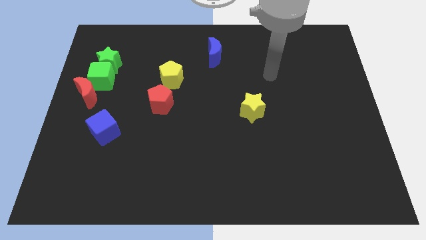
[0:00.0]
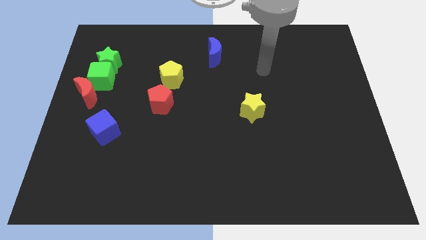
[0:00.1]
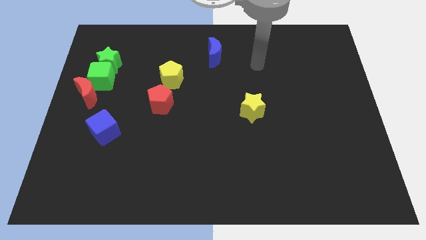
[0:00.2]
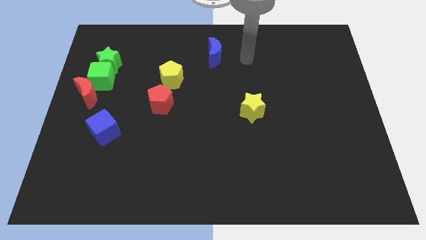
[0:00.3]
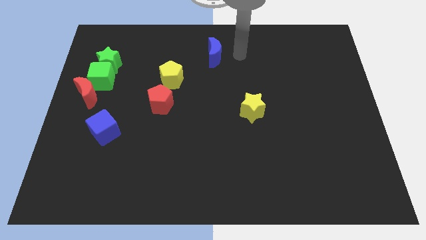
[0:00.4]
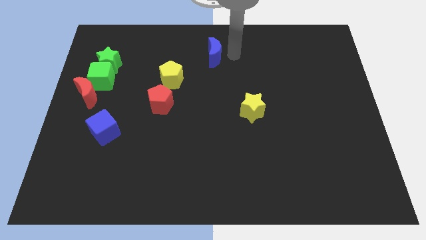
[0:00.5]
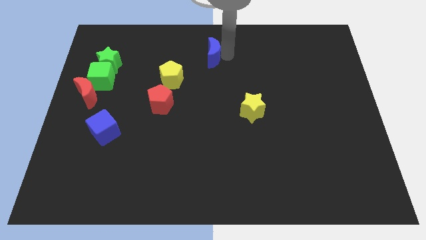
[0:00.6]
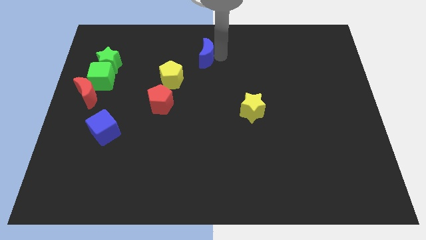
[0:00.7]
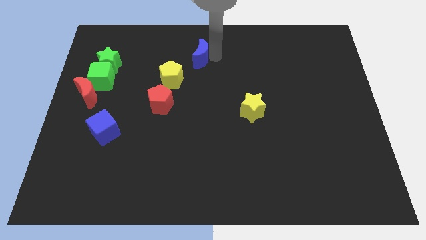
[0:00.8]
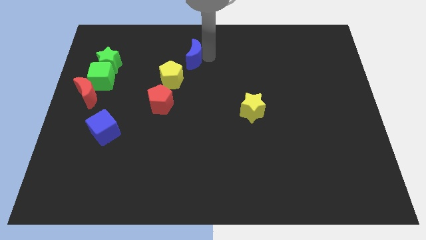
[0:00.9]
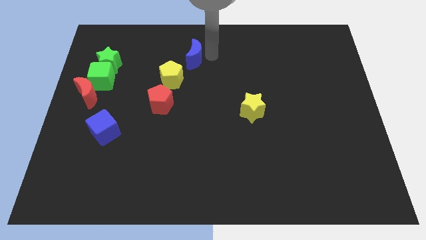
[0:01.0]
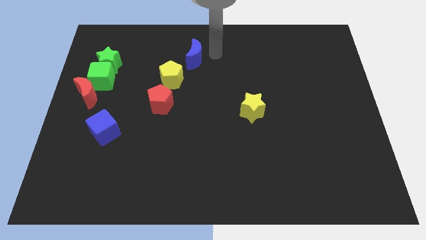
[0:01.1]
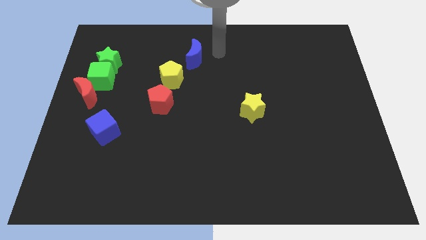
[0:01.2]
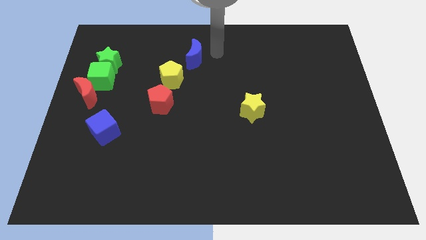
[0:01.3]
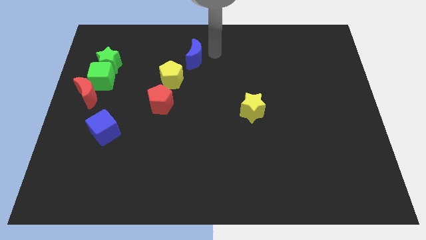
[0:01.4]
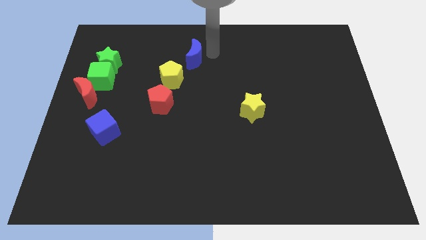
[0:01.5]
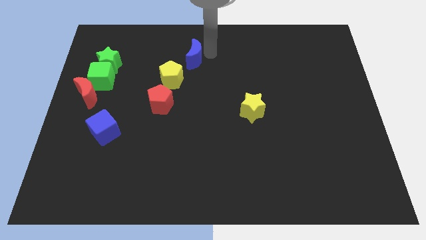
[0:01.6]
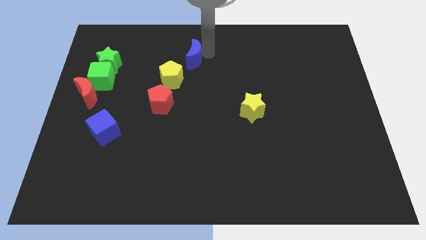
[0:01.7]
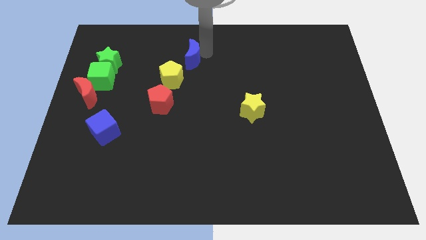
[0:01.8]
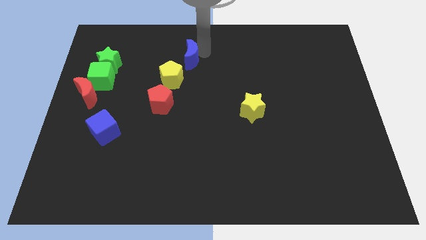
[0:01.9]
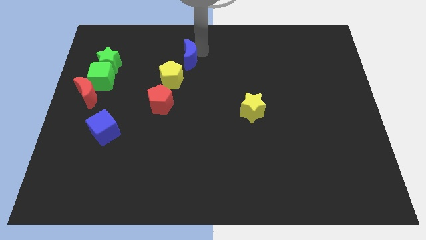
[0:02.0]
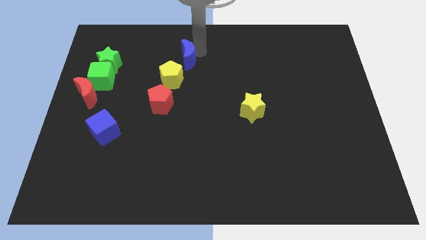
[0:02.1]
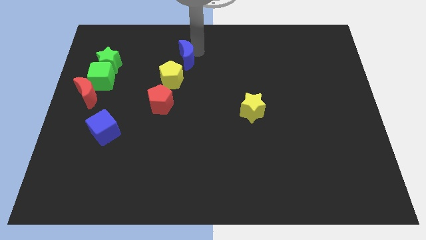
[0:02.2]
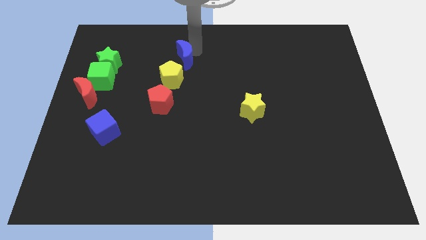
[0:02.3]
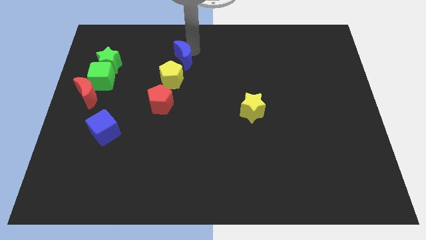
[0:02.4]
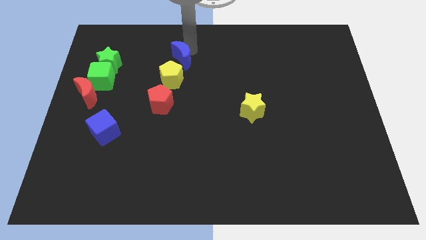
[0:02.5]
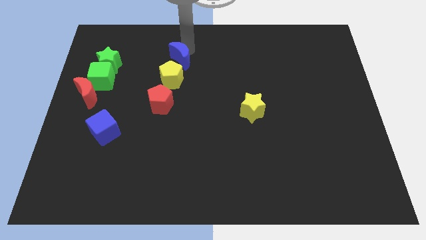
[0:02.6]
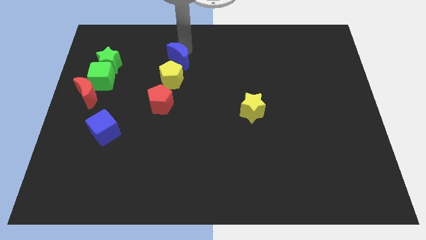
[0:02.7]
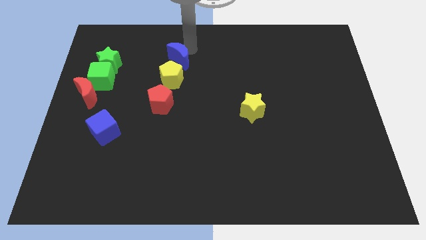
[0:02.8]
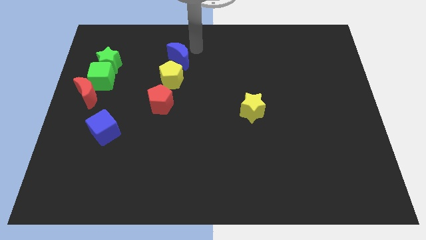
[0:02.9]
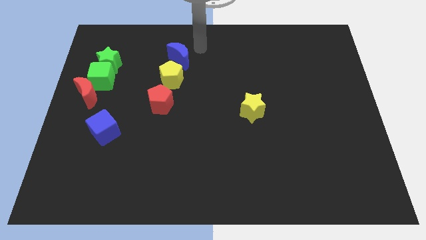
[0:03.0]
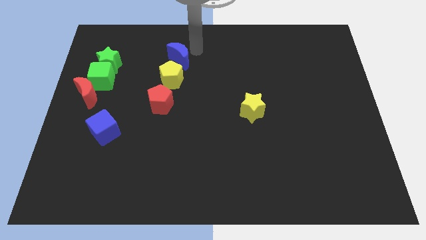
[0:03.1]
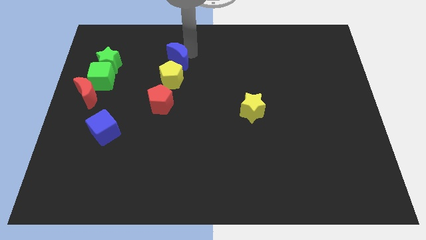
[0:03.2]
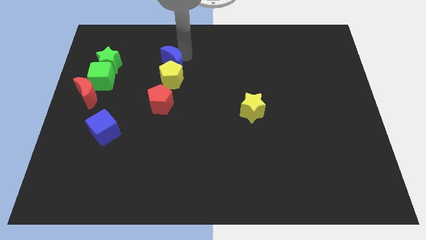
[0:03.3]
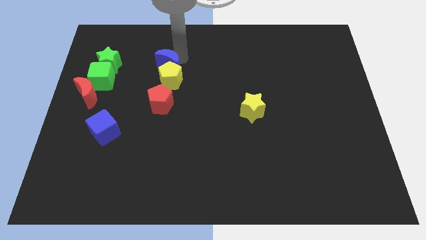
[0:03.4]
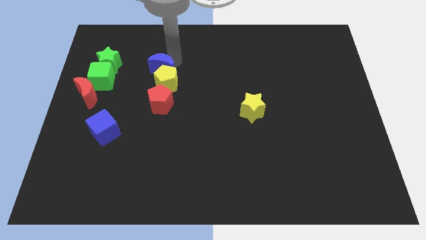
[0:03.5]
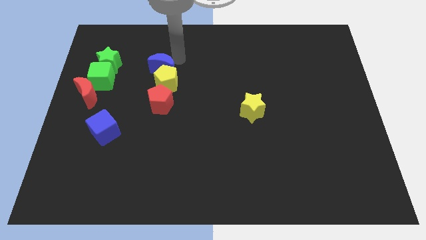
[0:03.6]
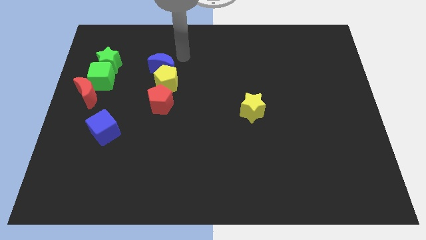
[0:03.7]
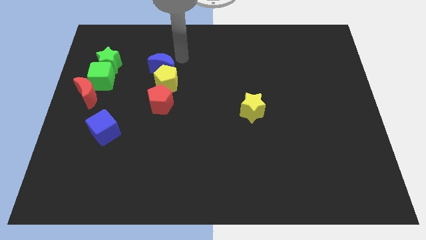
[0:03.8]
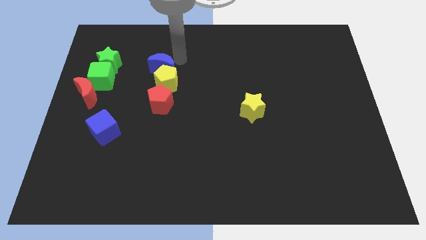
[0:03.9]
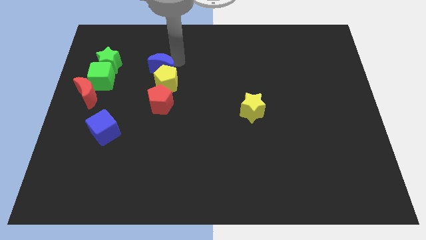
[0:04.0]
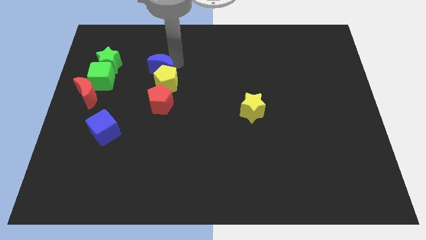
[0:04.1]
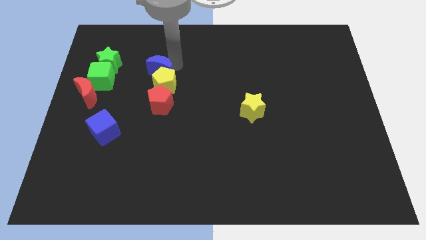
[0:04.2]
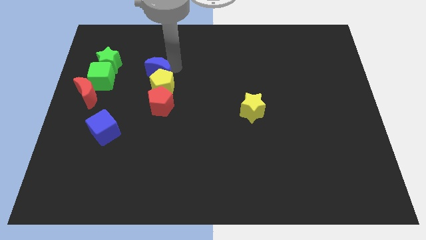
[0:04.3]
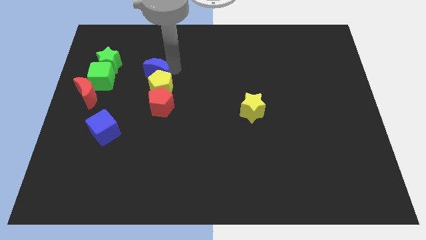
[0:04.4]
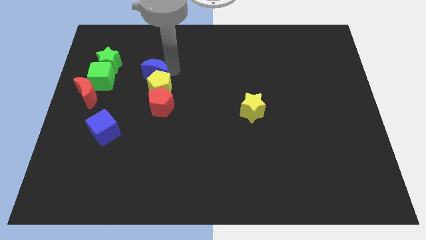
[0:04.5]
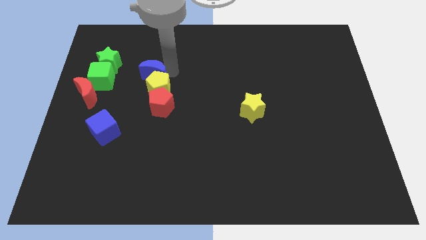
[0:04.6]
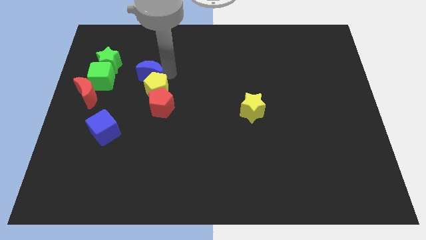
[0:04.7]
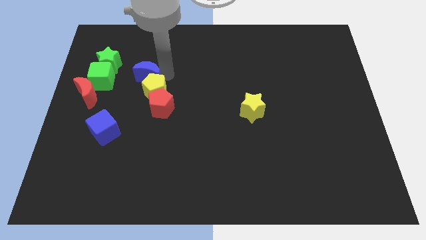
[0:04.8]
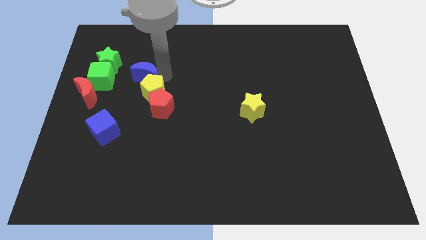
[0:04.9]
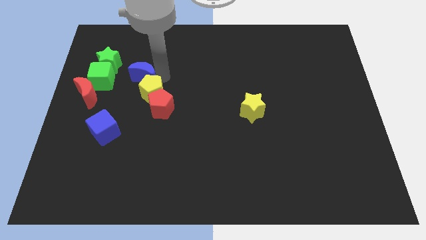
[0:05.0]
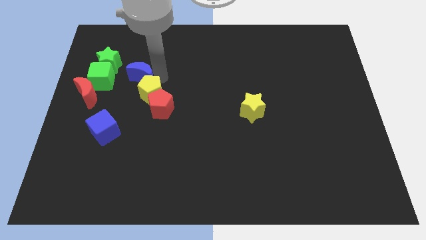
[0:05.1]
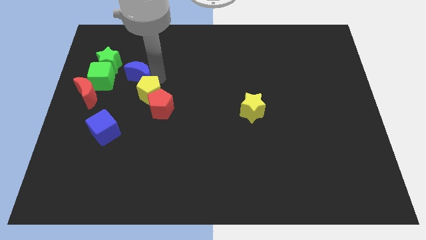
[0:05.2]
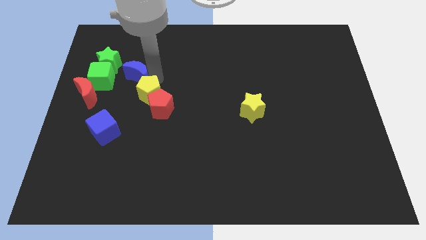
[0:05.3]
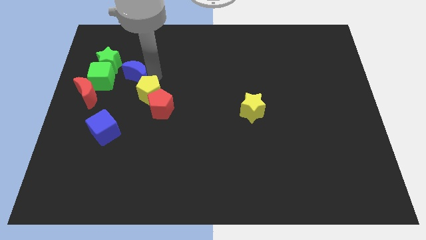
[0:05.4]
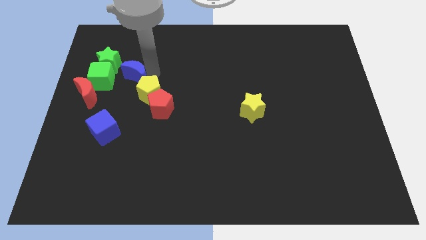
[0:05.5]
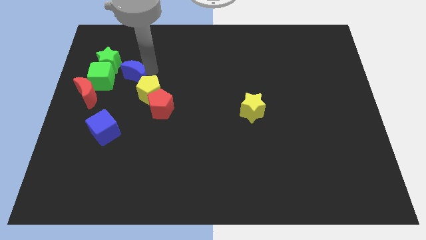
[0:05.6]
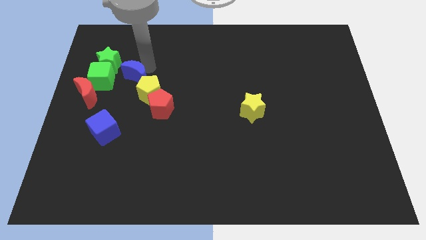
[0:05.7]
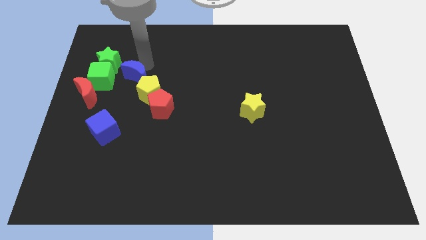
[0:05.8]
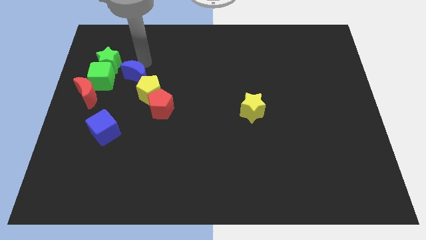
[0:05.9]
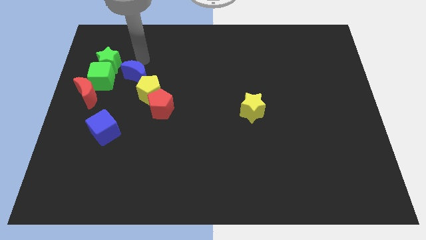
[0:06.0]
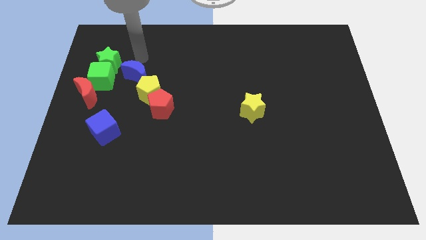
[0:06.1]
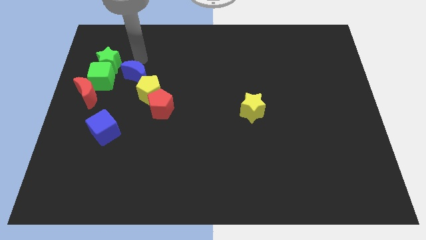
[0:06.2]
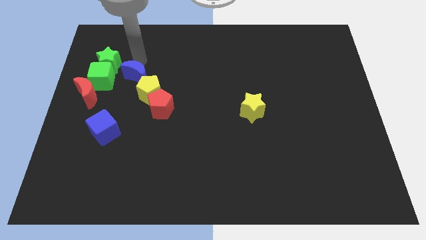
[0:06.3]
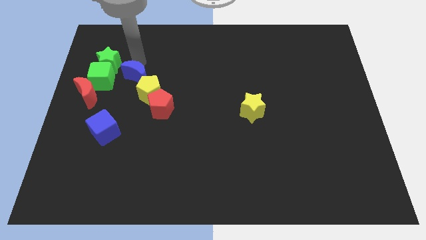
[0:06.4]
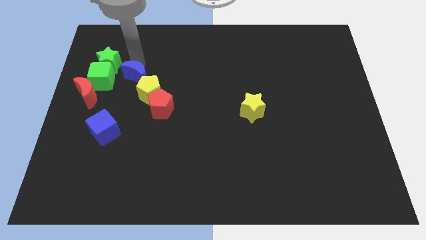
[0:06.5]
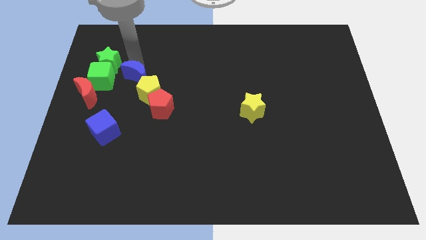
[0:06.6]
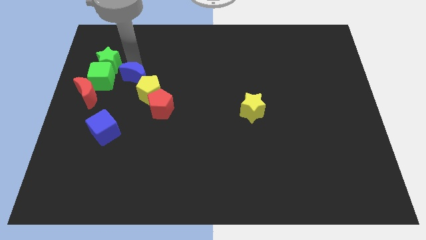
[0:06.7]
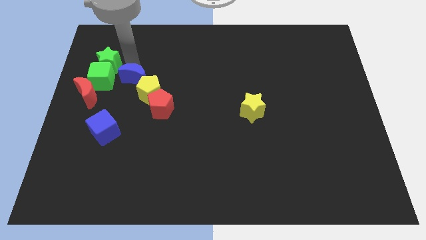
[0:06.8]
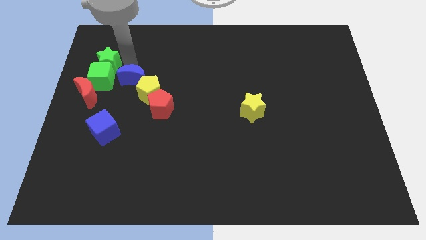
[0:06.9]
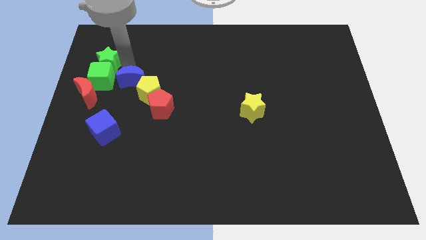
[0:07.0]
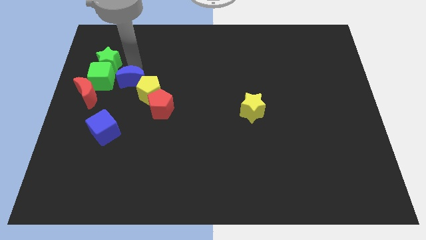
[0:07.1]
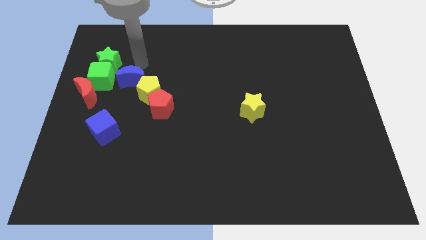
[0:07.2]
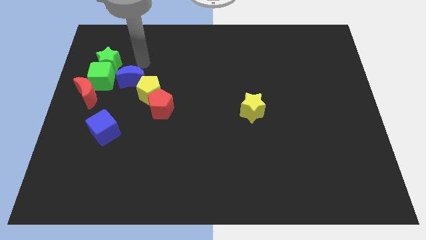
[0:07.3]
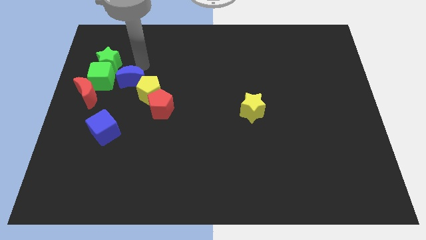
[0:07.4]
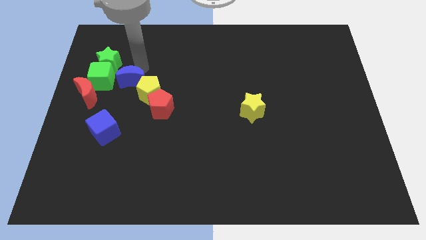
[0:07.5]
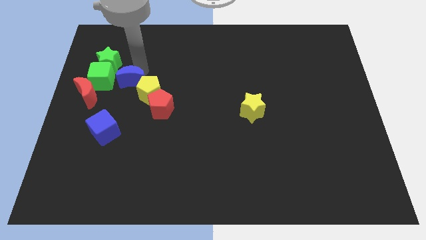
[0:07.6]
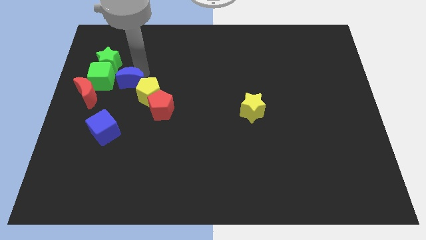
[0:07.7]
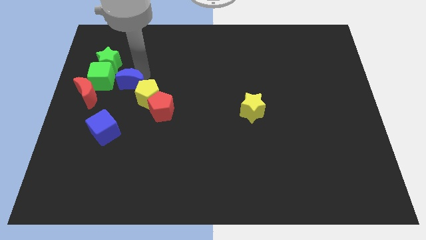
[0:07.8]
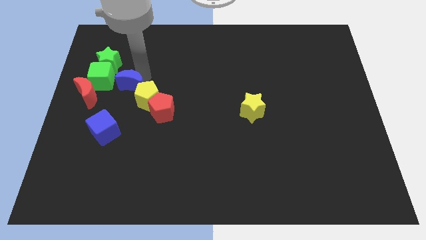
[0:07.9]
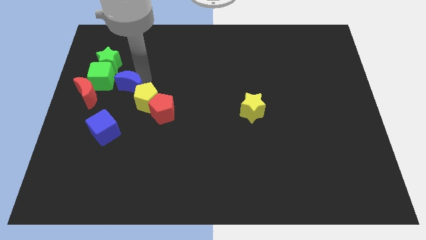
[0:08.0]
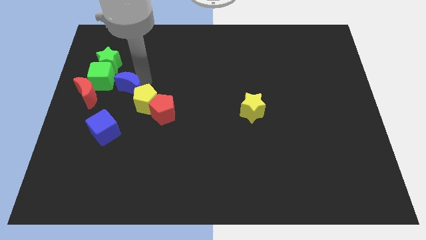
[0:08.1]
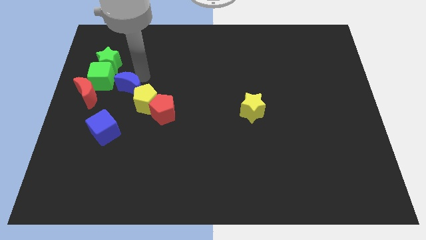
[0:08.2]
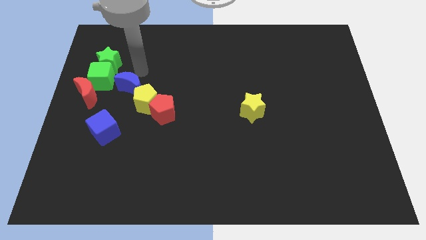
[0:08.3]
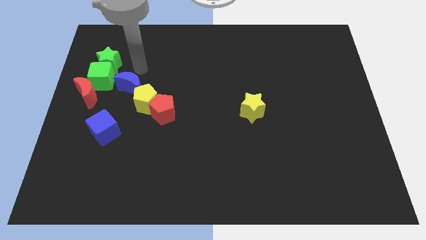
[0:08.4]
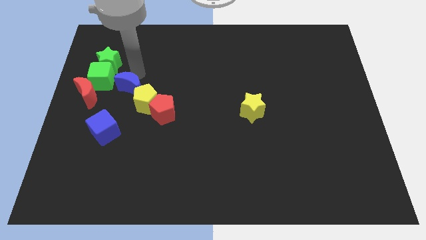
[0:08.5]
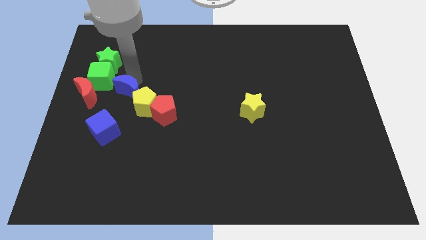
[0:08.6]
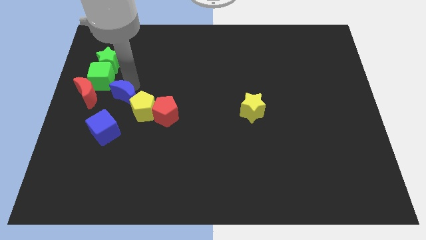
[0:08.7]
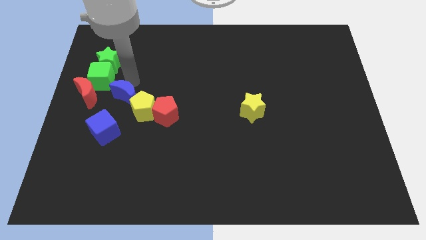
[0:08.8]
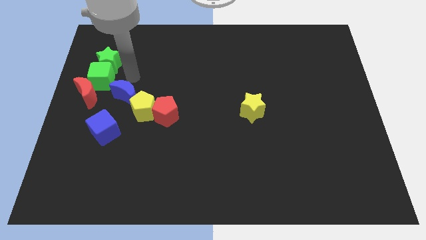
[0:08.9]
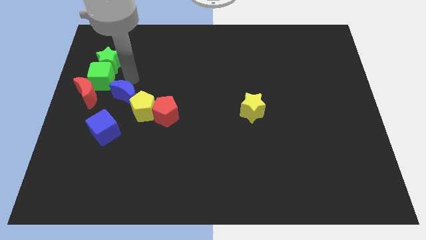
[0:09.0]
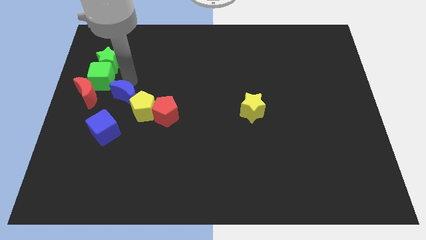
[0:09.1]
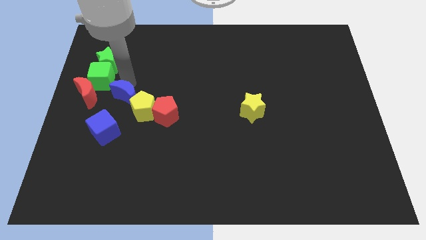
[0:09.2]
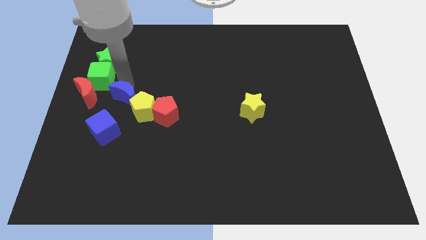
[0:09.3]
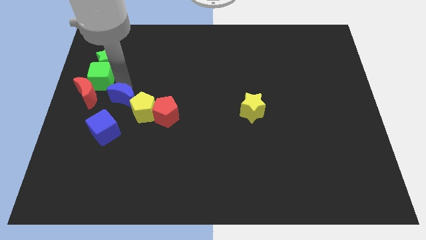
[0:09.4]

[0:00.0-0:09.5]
slide the blue moon left of the red pentagon
